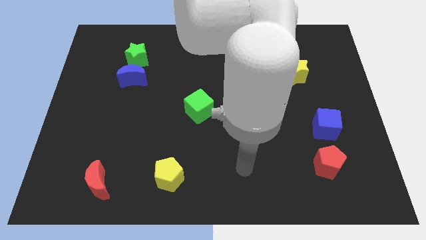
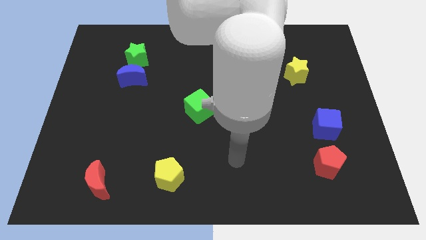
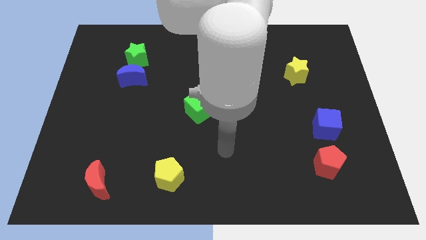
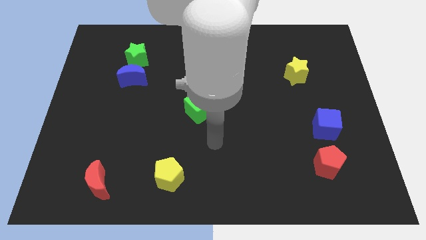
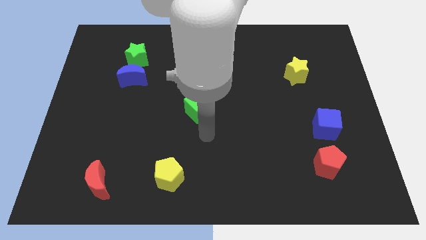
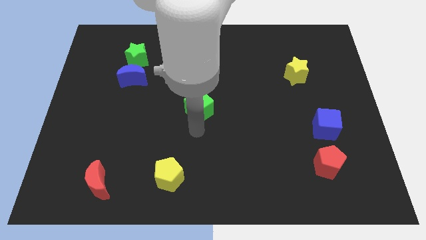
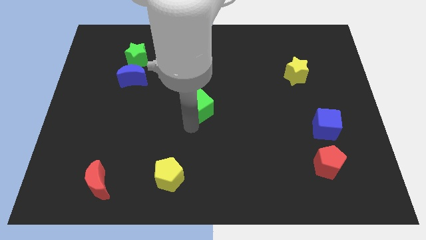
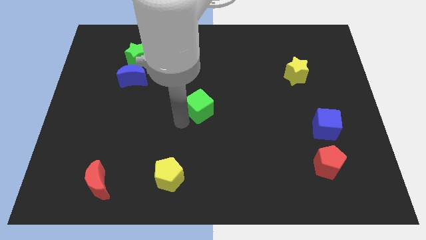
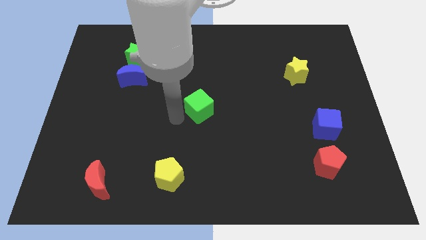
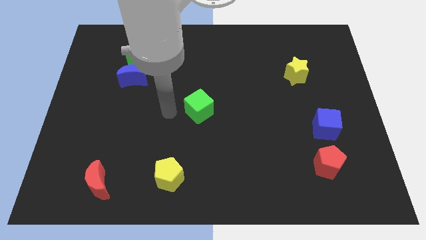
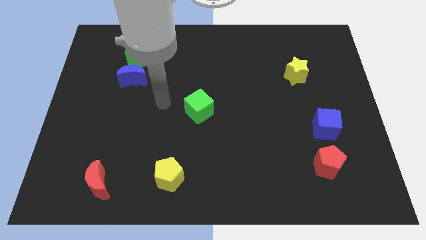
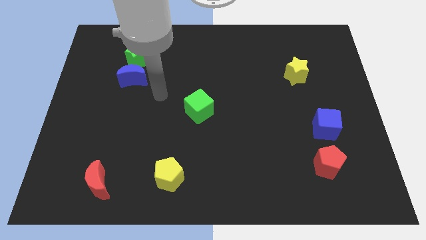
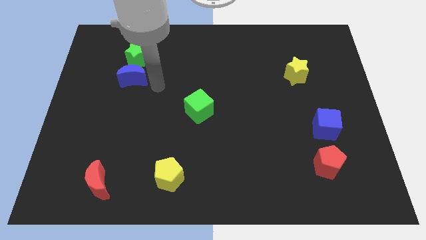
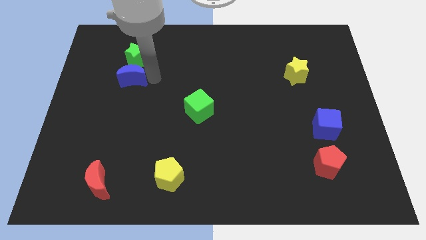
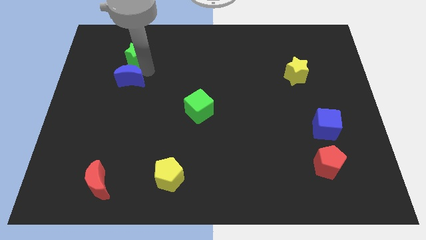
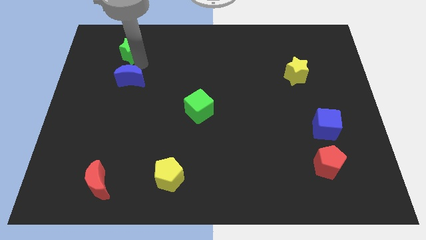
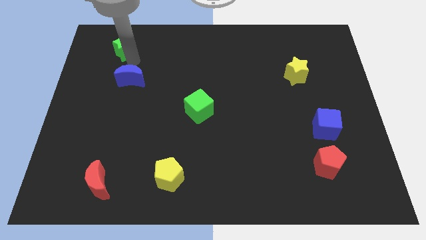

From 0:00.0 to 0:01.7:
separate the blue moon from the green star

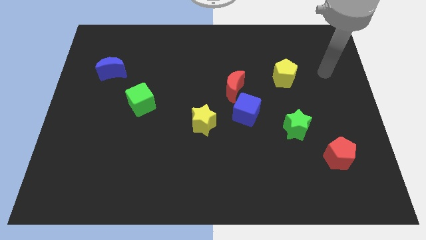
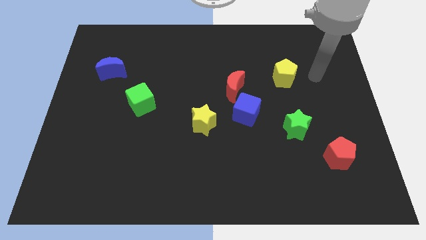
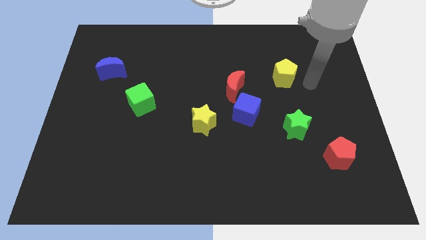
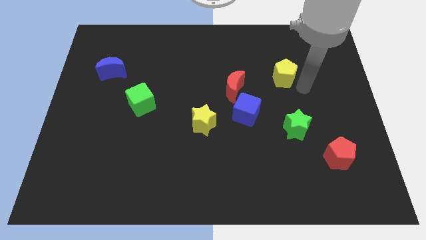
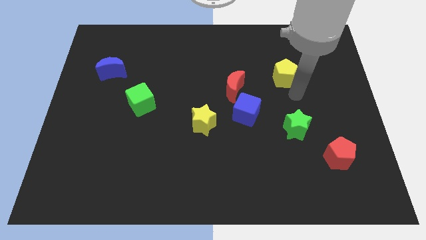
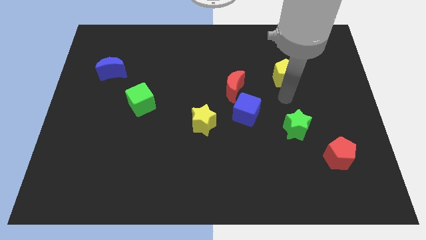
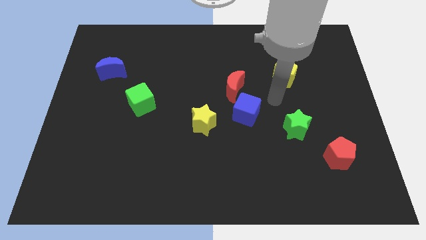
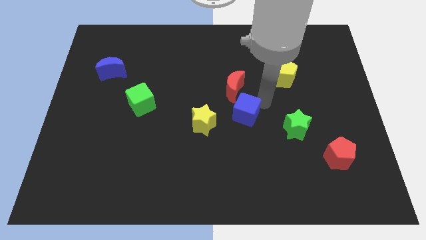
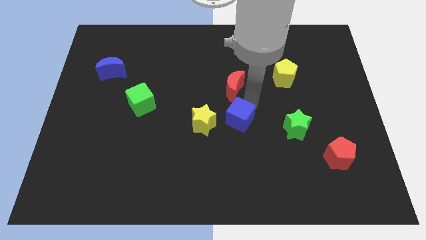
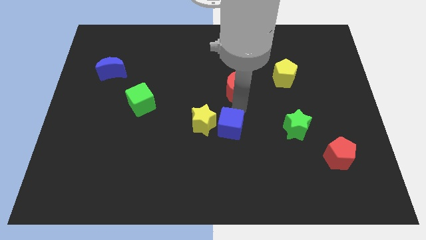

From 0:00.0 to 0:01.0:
move the red moon away from the blue cube

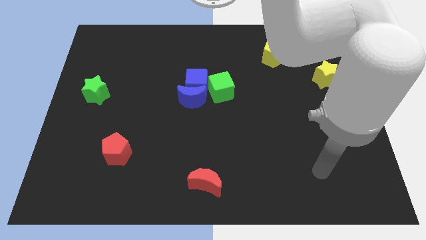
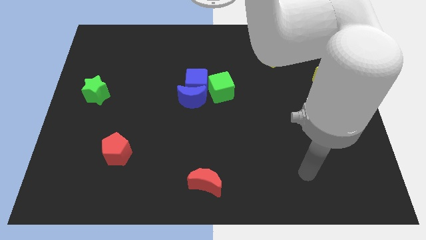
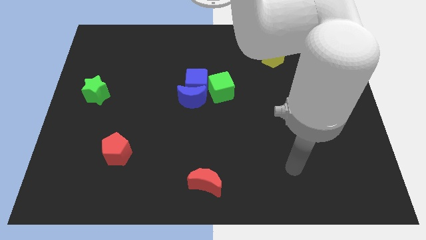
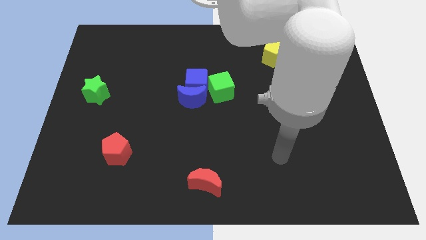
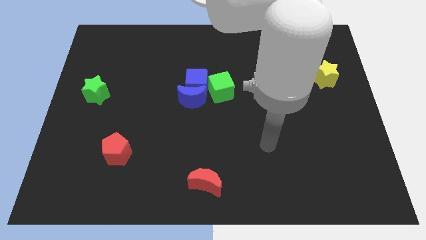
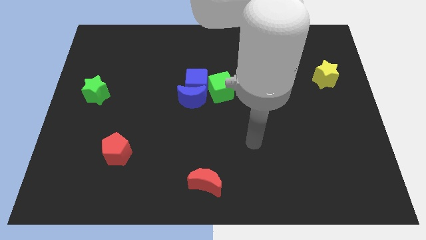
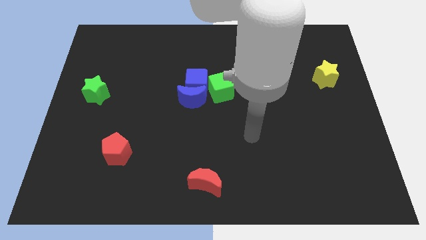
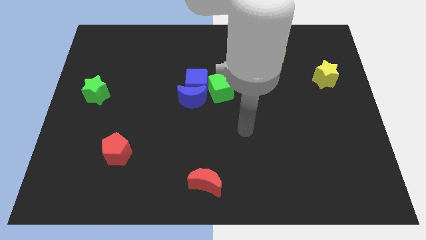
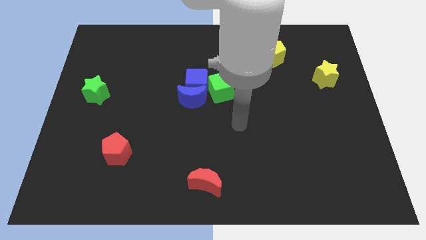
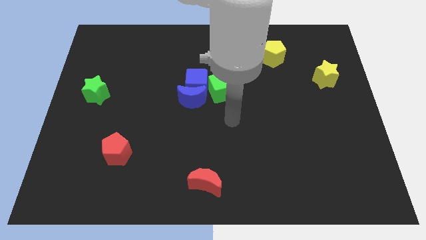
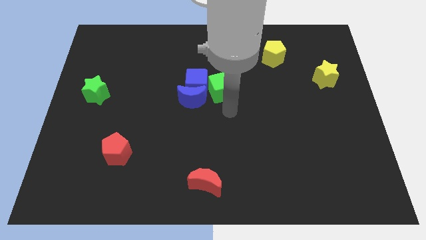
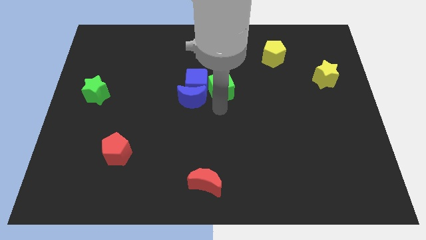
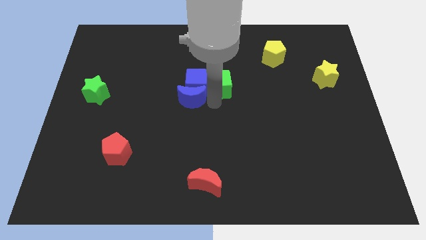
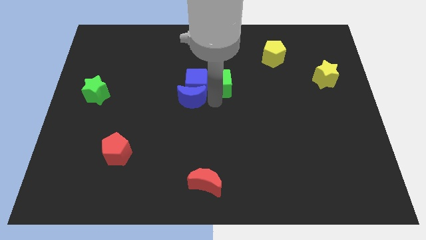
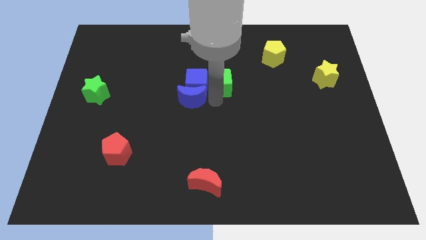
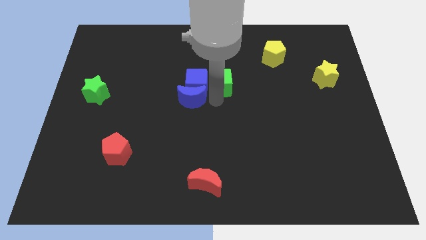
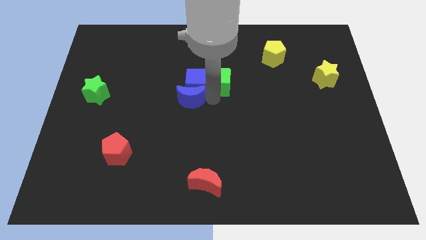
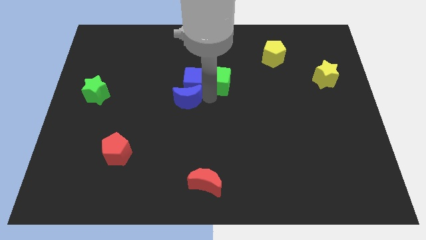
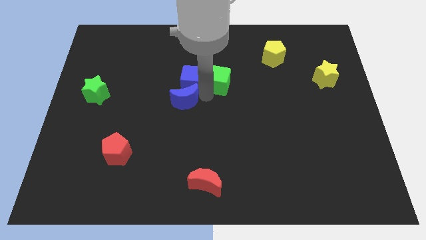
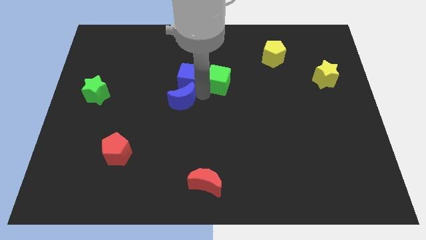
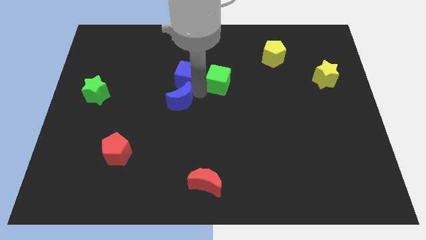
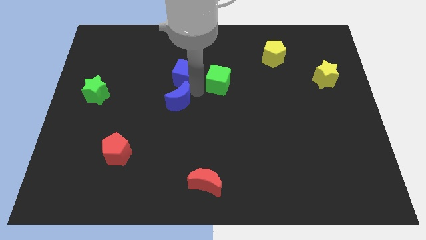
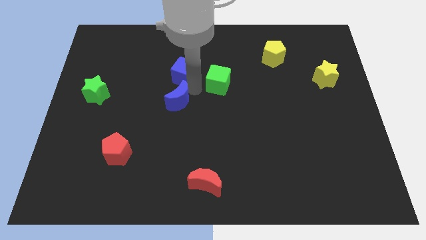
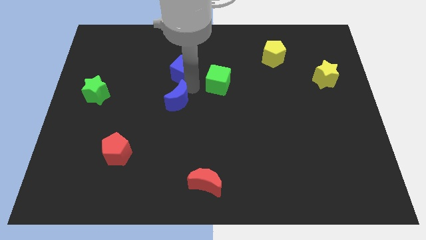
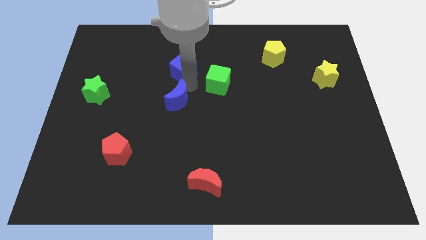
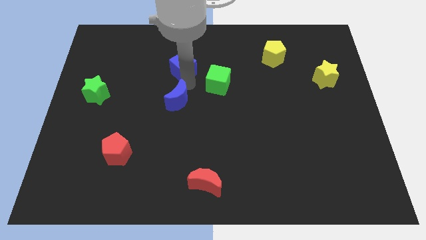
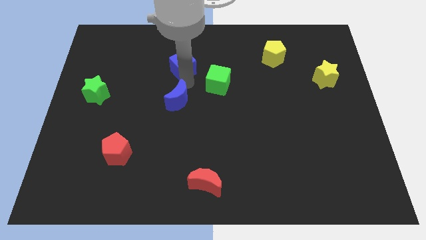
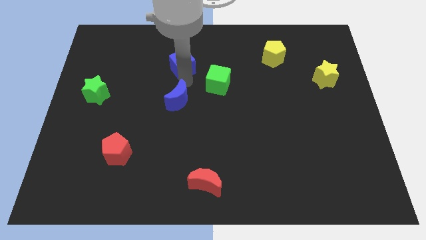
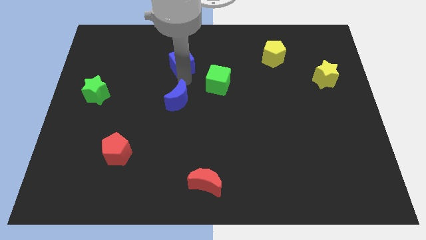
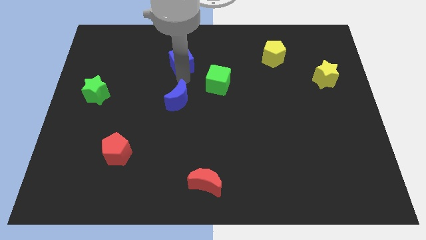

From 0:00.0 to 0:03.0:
pull the blue cube apart from the blue moon and green cube

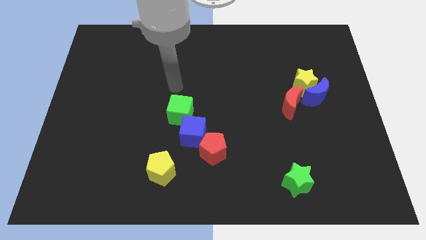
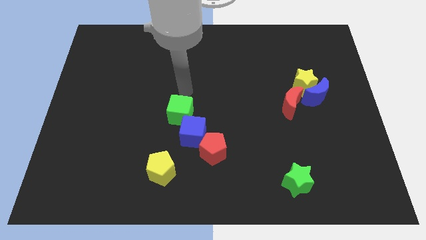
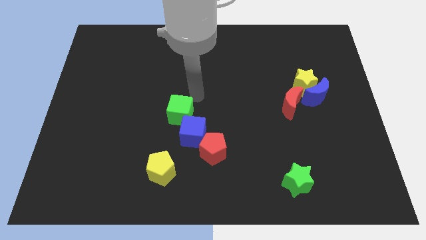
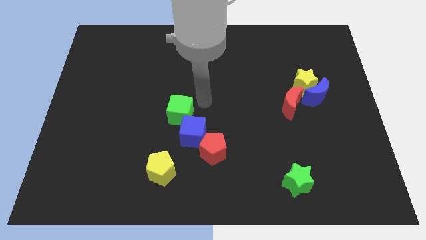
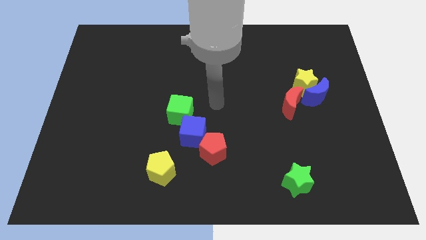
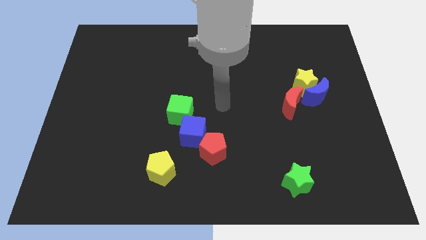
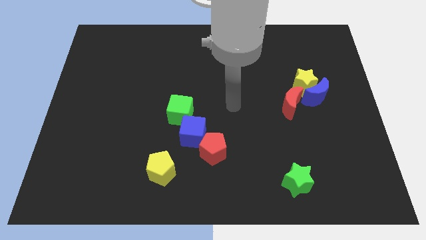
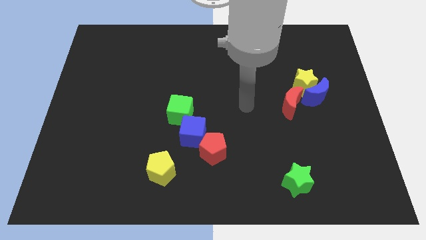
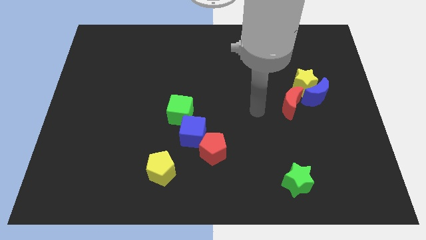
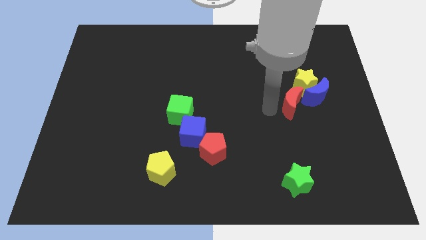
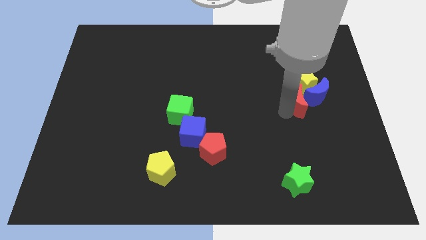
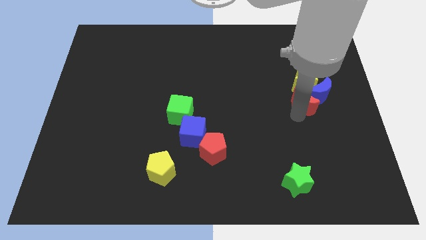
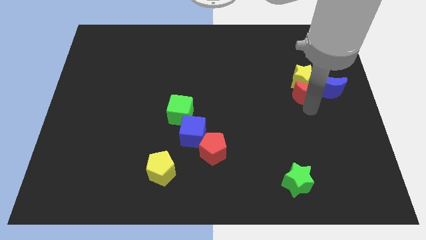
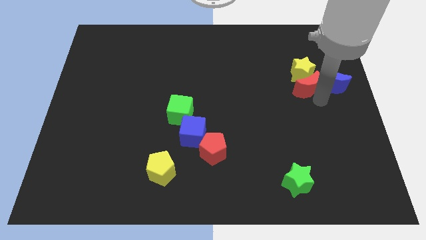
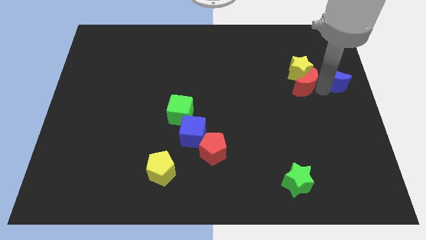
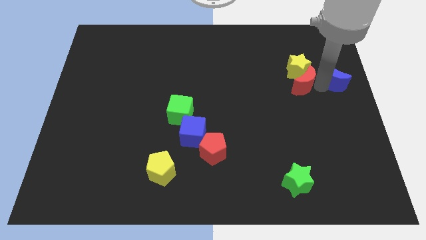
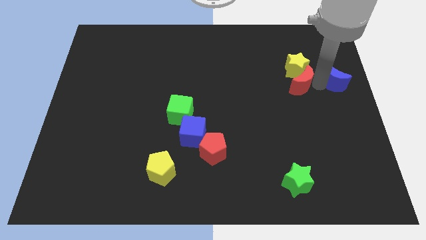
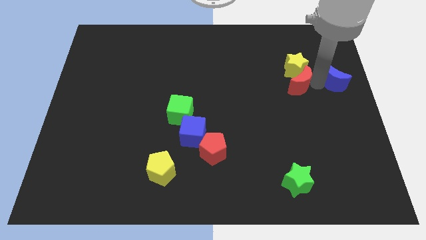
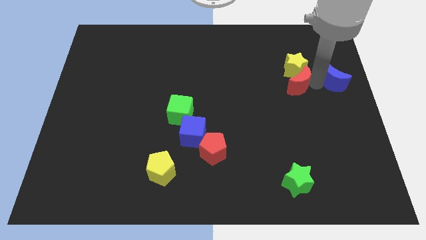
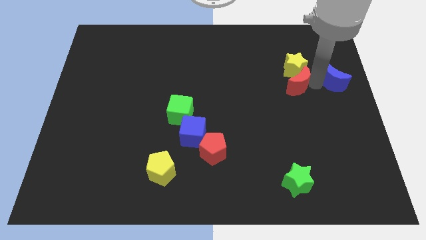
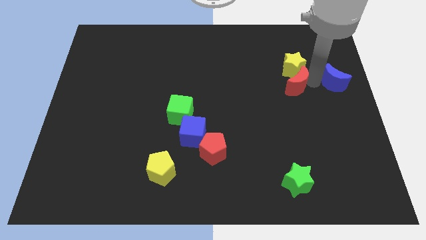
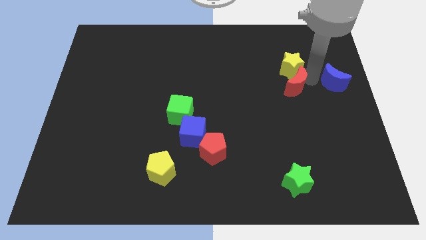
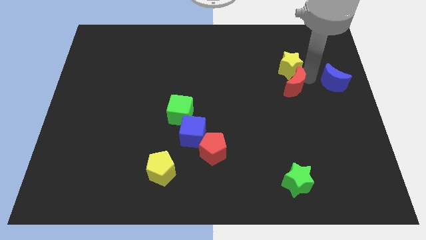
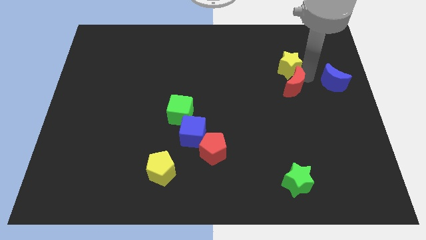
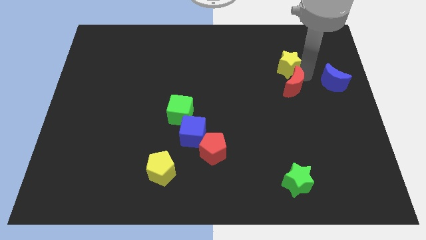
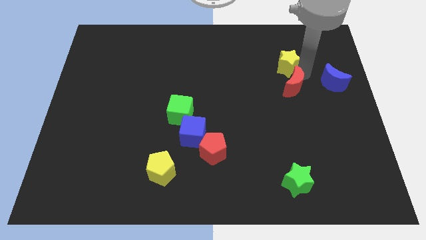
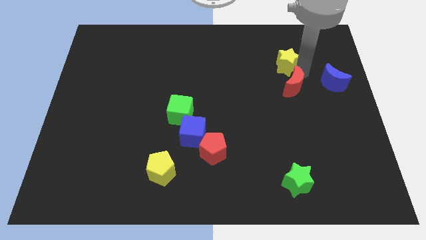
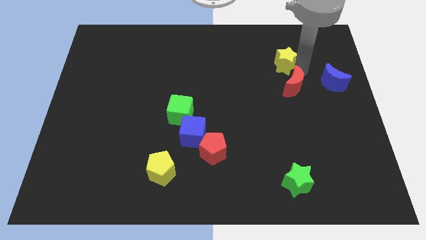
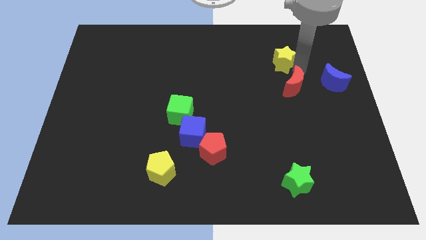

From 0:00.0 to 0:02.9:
separate the yellow star from the blue moon and red moon

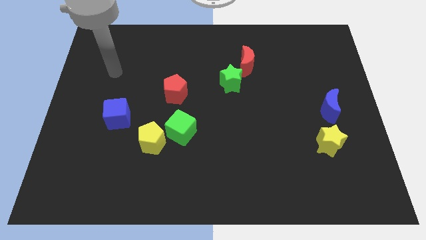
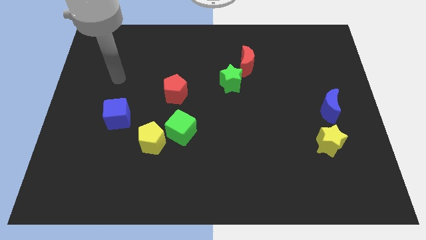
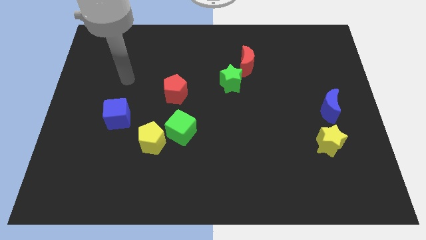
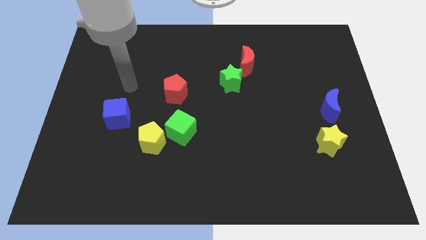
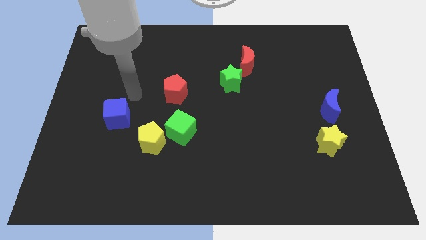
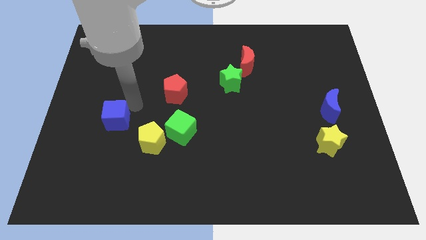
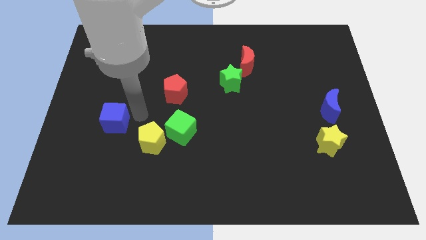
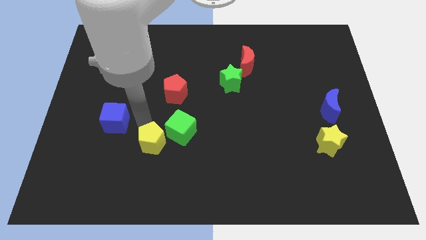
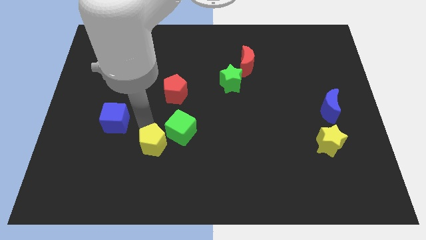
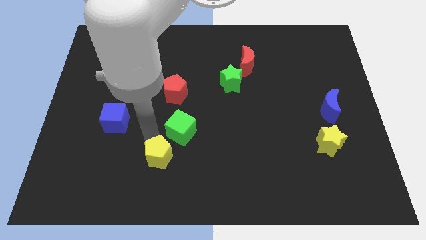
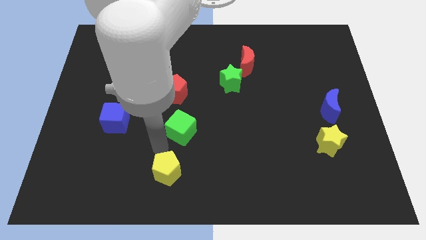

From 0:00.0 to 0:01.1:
move the green cube away from the yellow pentagon
